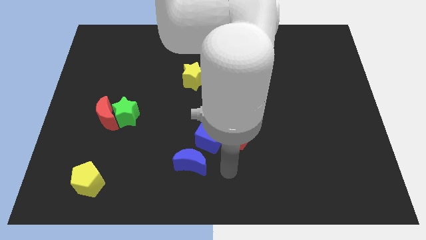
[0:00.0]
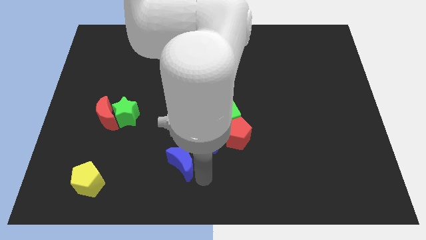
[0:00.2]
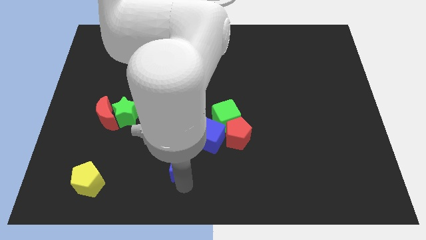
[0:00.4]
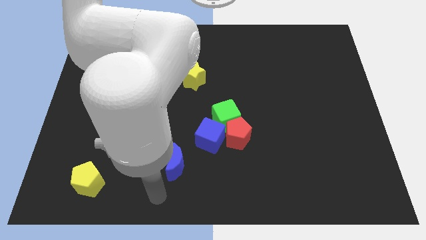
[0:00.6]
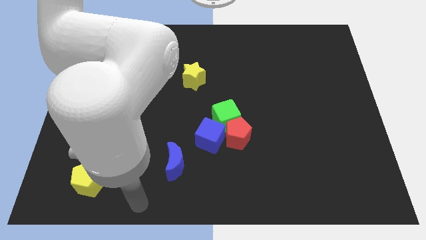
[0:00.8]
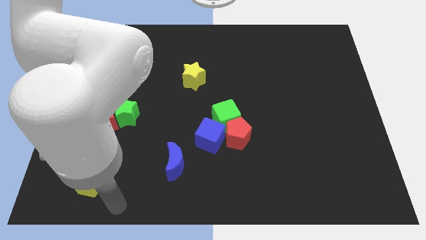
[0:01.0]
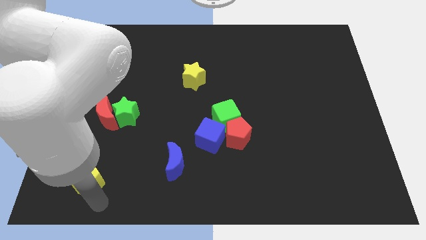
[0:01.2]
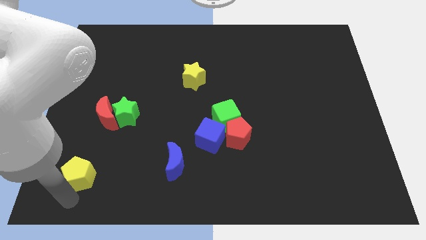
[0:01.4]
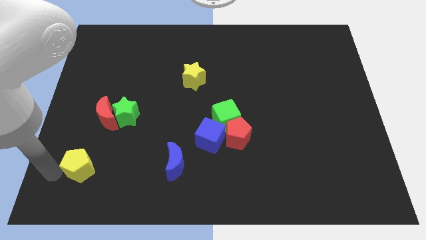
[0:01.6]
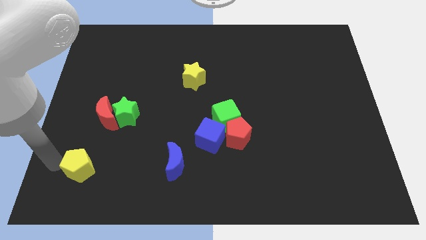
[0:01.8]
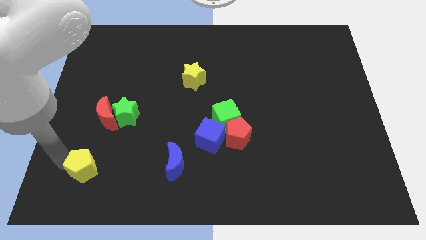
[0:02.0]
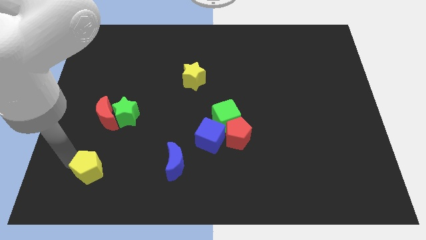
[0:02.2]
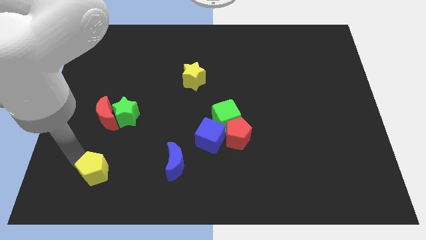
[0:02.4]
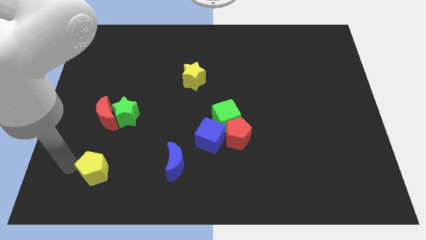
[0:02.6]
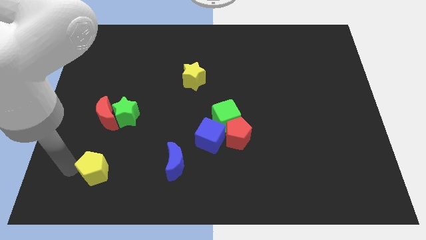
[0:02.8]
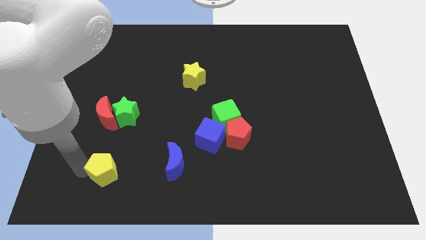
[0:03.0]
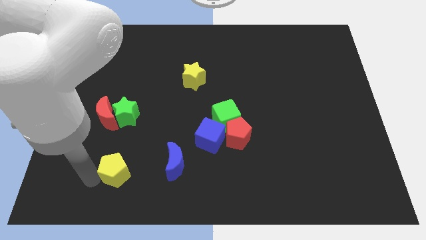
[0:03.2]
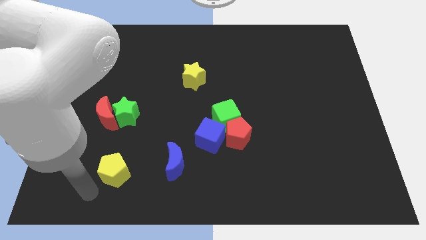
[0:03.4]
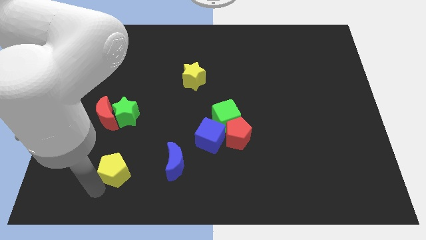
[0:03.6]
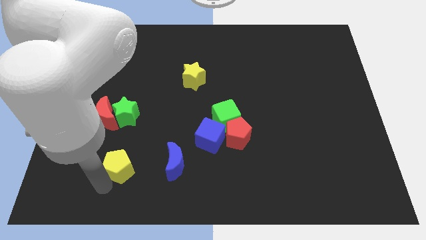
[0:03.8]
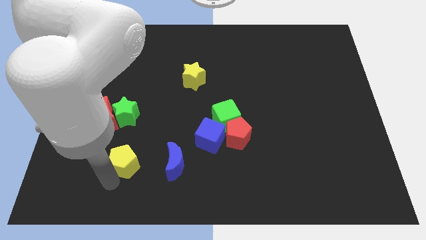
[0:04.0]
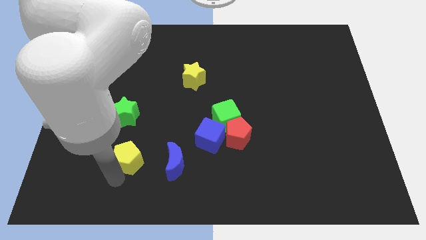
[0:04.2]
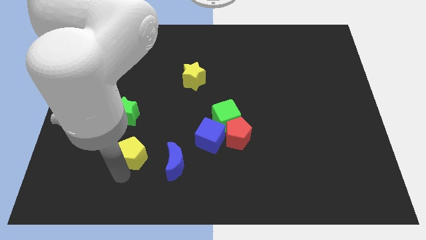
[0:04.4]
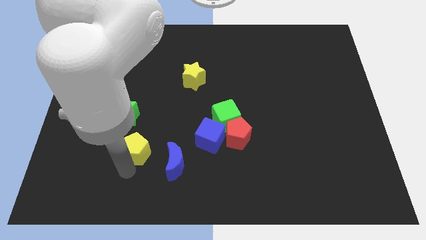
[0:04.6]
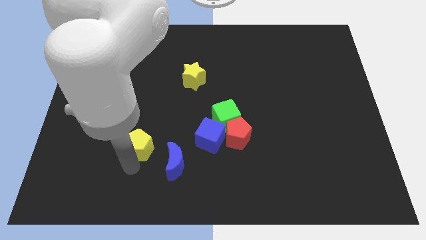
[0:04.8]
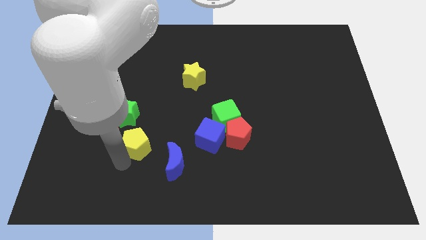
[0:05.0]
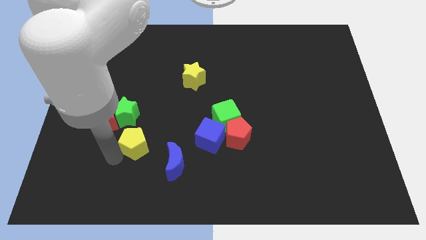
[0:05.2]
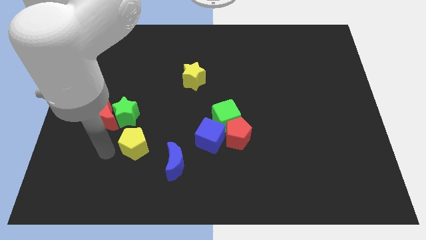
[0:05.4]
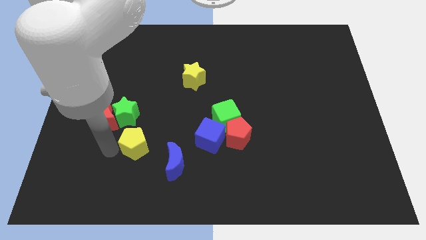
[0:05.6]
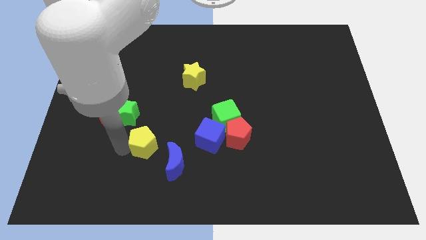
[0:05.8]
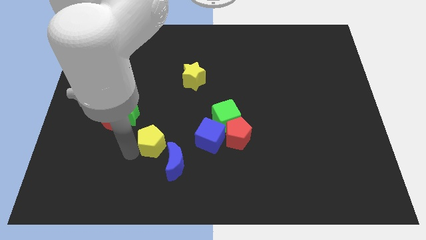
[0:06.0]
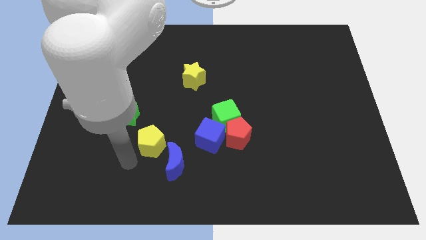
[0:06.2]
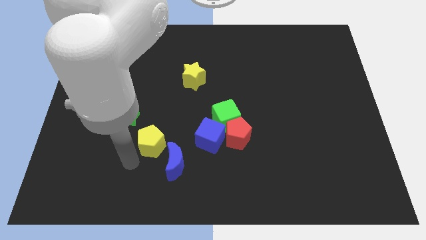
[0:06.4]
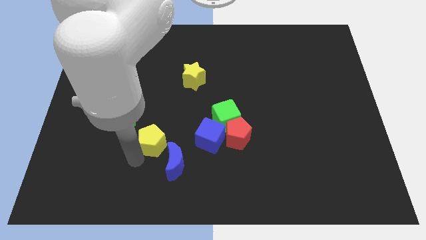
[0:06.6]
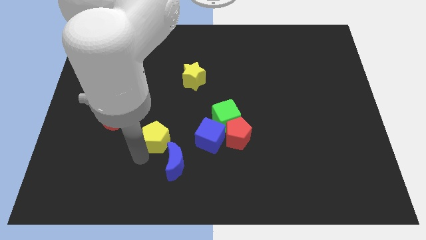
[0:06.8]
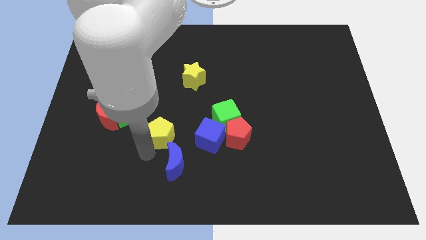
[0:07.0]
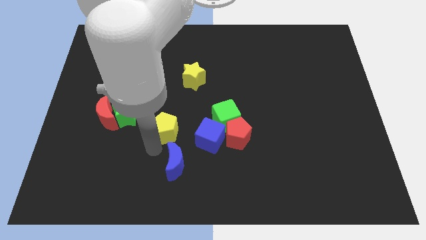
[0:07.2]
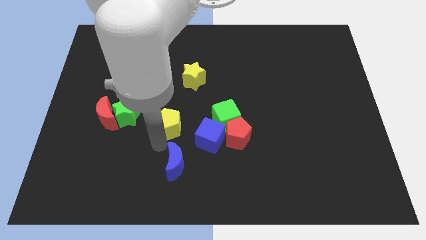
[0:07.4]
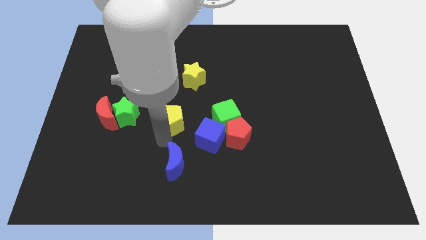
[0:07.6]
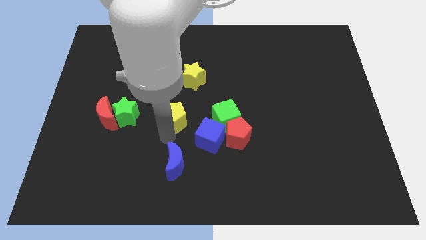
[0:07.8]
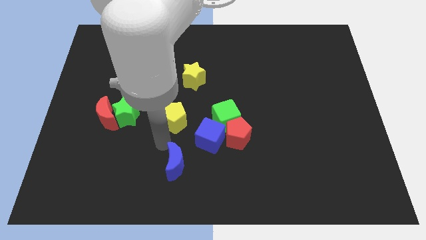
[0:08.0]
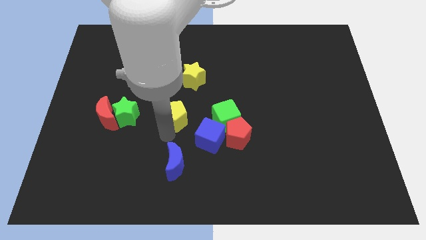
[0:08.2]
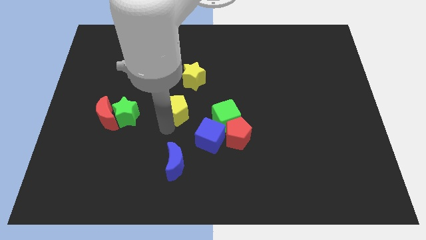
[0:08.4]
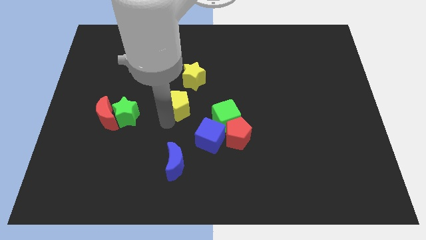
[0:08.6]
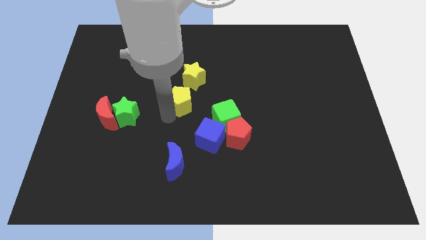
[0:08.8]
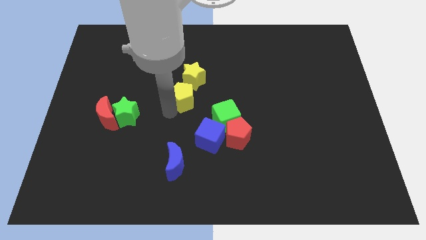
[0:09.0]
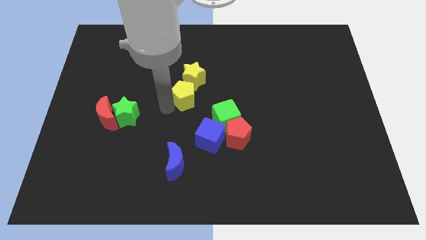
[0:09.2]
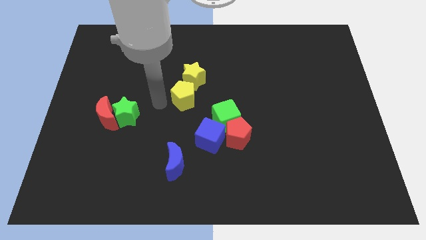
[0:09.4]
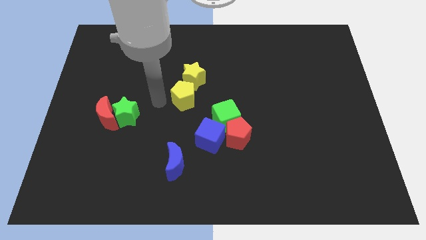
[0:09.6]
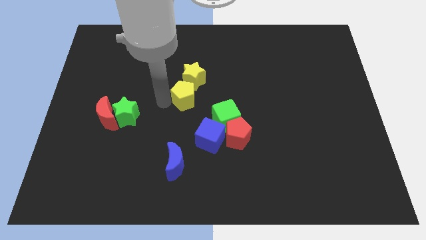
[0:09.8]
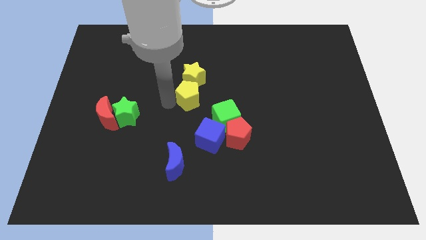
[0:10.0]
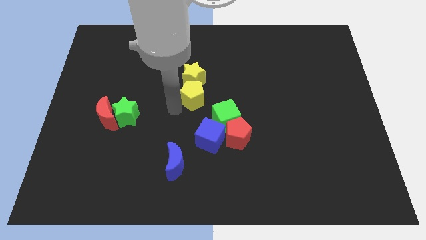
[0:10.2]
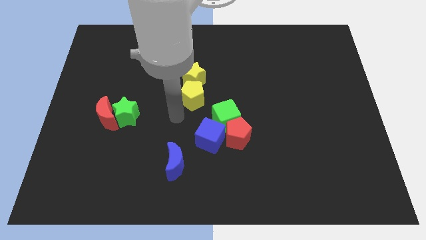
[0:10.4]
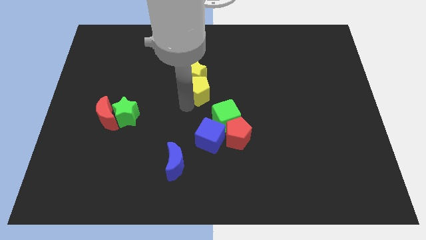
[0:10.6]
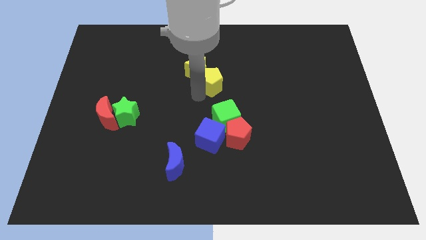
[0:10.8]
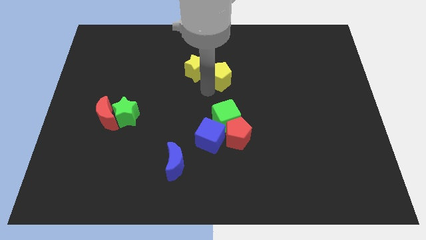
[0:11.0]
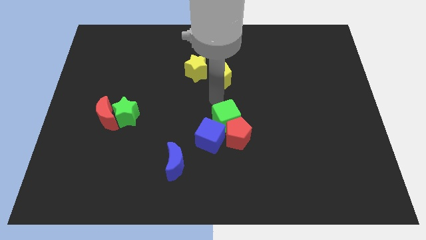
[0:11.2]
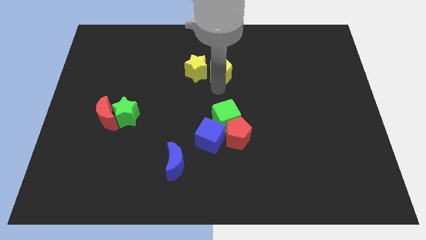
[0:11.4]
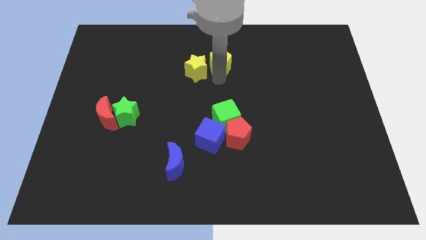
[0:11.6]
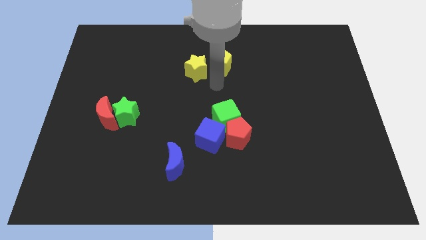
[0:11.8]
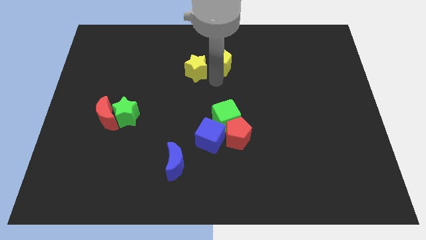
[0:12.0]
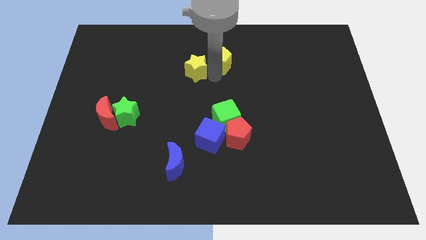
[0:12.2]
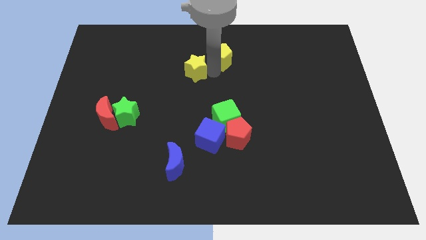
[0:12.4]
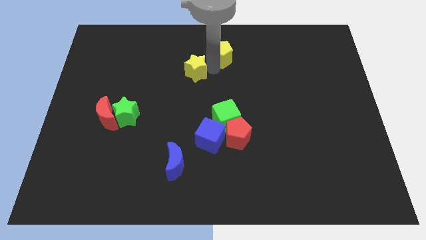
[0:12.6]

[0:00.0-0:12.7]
slide the yellow pentagon to the top side

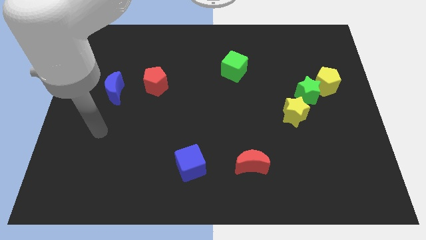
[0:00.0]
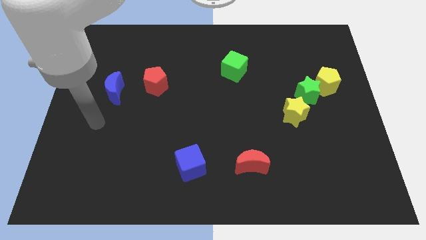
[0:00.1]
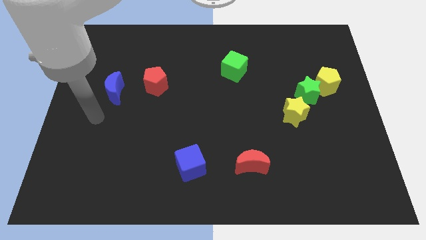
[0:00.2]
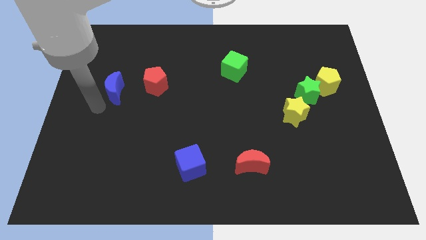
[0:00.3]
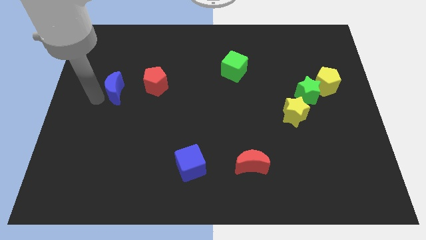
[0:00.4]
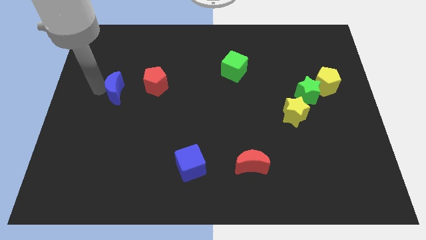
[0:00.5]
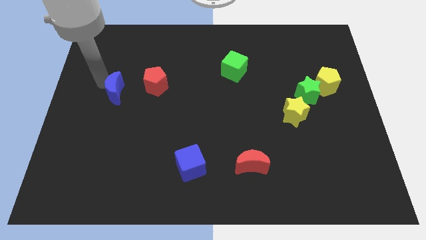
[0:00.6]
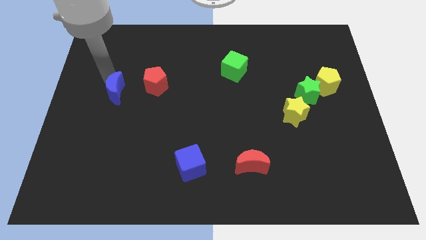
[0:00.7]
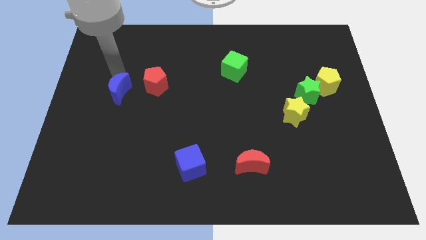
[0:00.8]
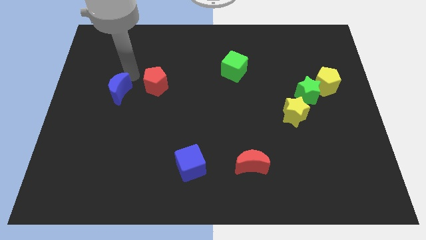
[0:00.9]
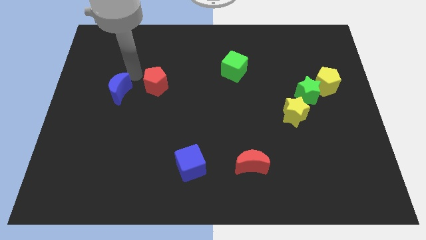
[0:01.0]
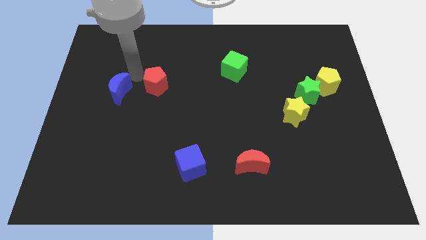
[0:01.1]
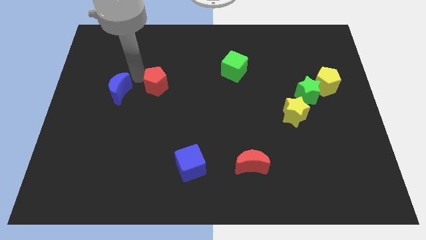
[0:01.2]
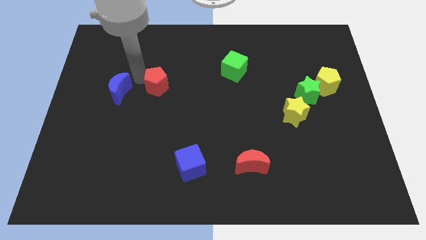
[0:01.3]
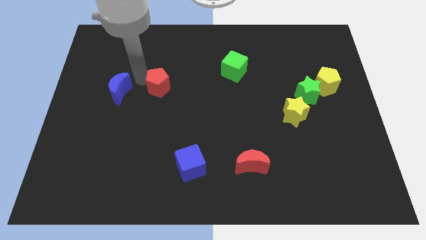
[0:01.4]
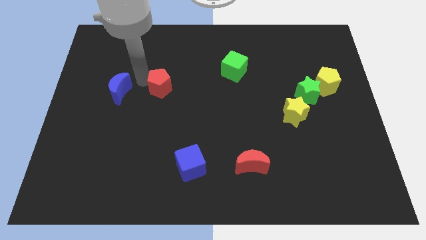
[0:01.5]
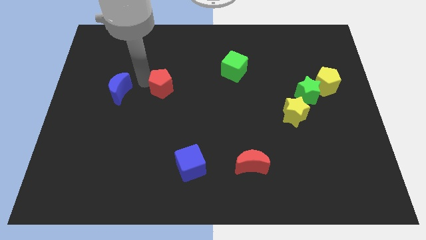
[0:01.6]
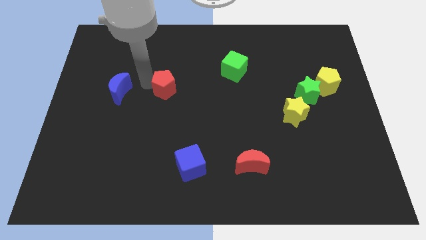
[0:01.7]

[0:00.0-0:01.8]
push the red pentagon to the center
